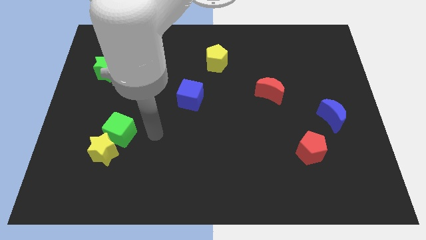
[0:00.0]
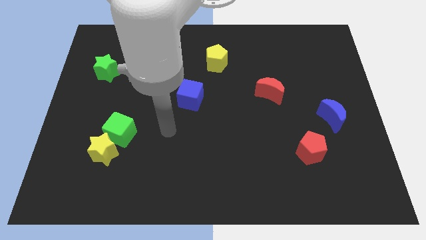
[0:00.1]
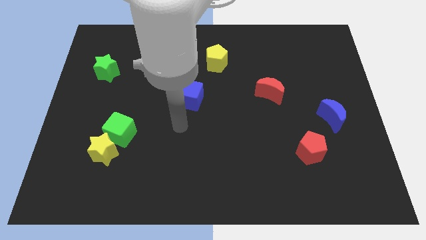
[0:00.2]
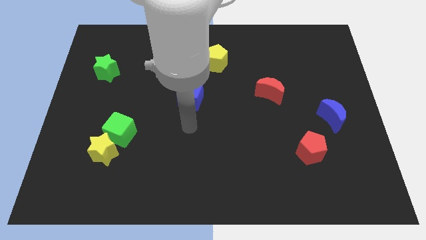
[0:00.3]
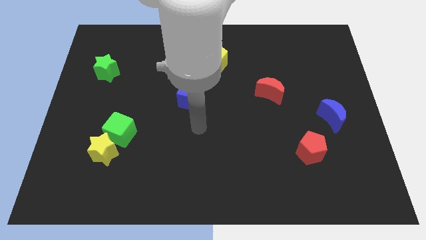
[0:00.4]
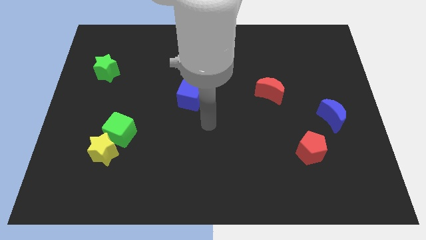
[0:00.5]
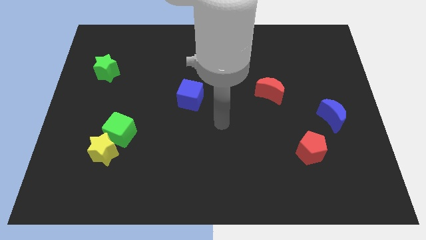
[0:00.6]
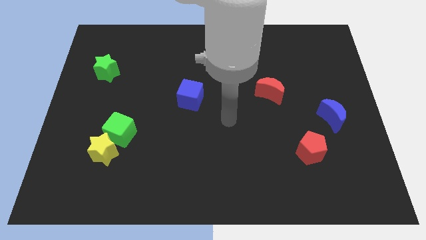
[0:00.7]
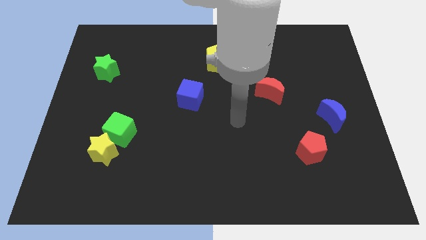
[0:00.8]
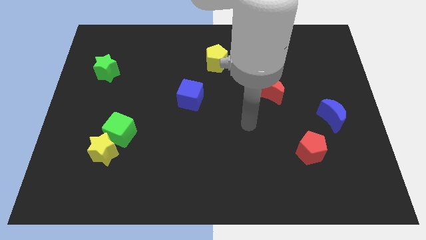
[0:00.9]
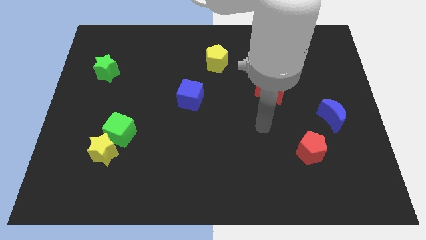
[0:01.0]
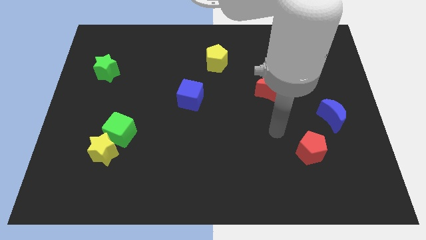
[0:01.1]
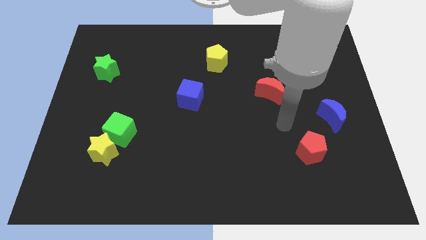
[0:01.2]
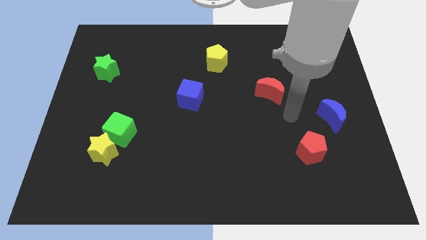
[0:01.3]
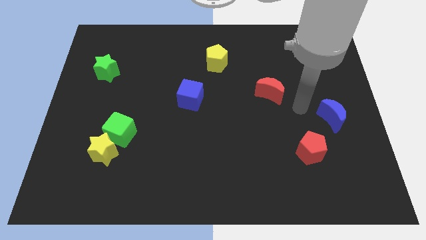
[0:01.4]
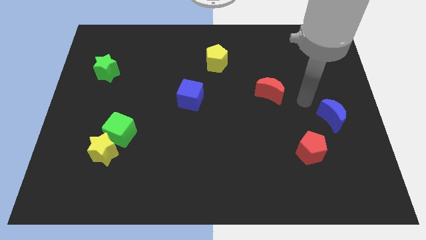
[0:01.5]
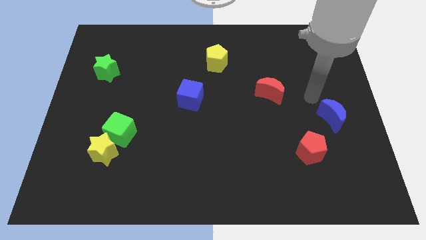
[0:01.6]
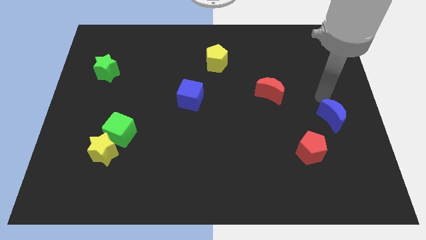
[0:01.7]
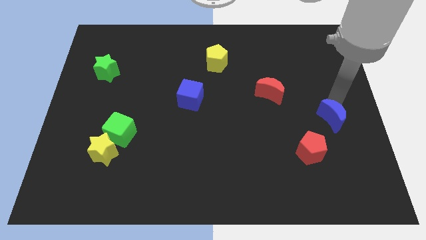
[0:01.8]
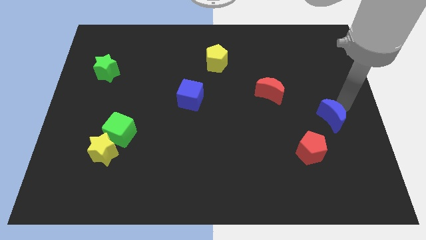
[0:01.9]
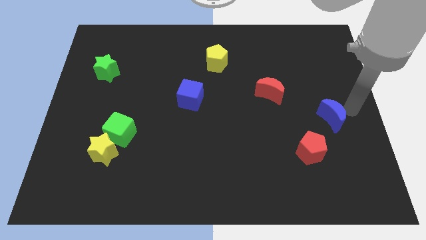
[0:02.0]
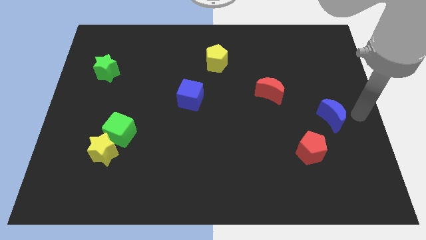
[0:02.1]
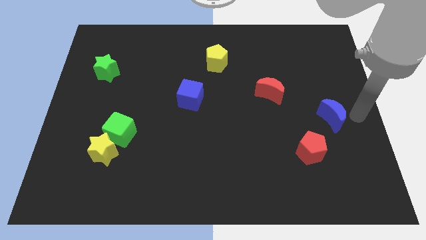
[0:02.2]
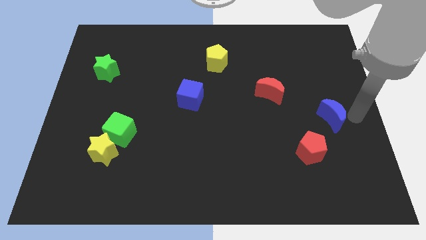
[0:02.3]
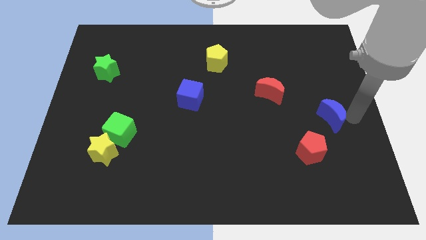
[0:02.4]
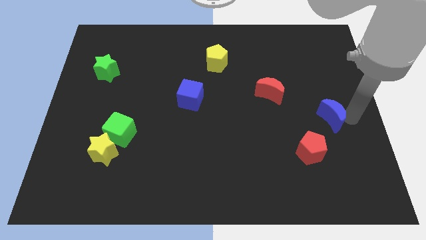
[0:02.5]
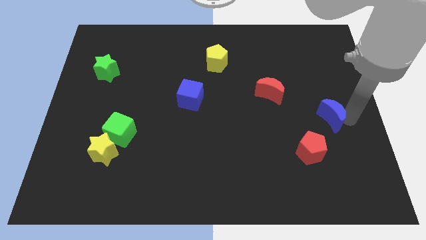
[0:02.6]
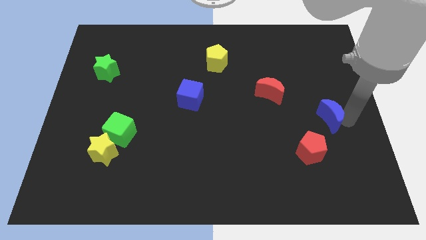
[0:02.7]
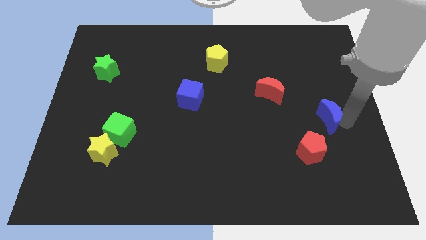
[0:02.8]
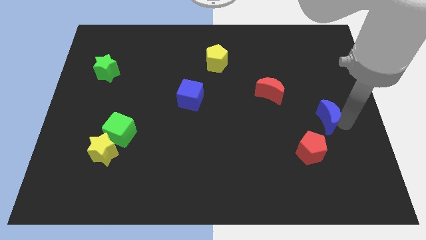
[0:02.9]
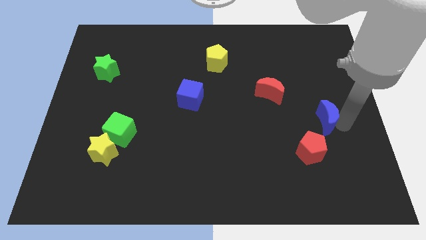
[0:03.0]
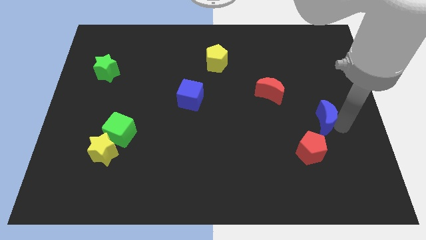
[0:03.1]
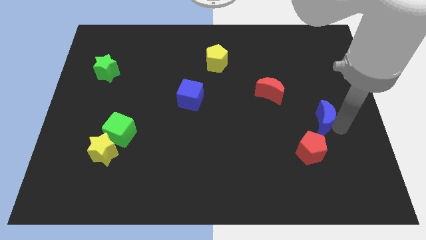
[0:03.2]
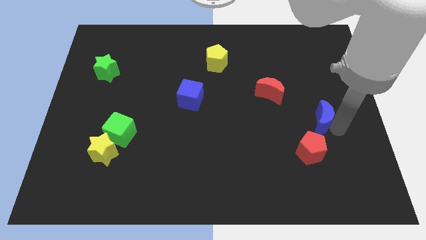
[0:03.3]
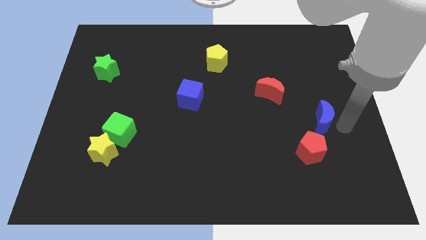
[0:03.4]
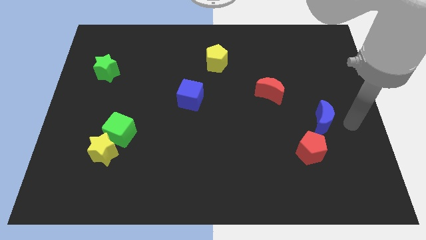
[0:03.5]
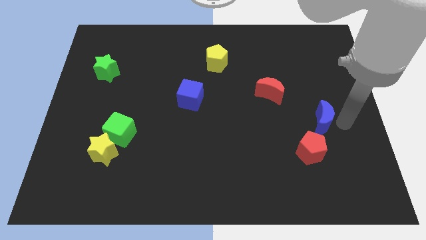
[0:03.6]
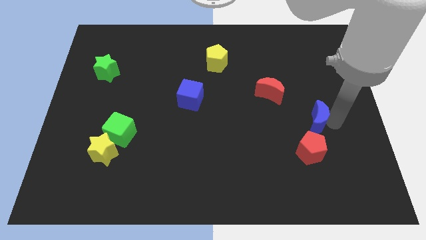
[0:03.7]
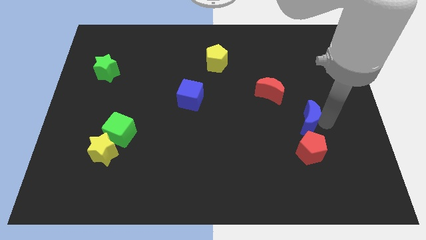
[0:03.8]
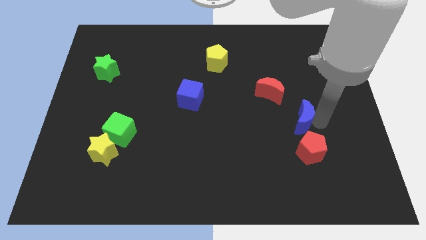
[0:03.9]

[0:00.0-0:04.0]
slightly slide the blue moon left

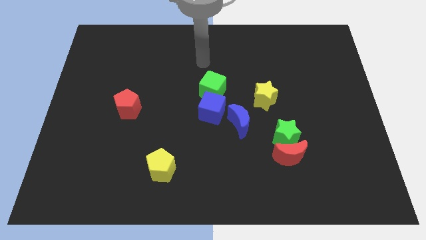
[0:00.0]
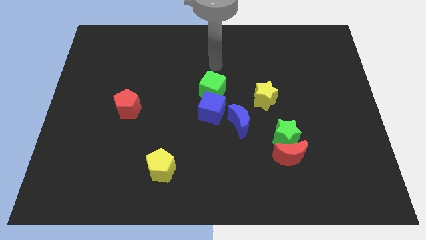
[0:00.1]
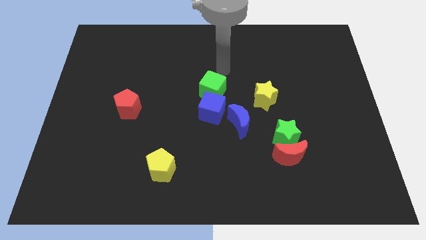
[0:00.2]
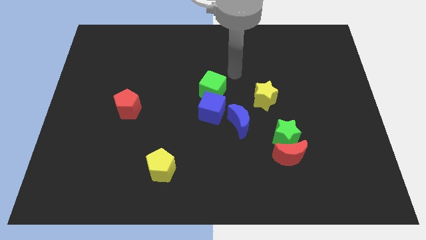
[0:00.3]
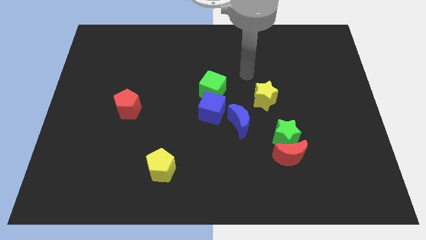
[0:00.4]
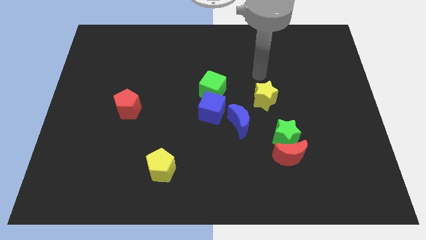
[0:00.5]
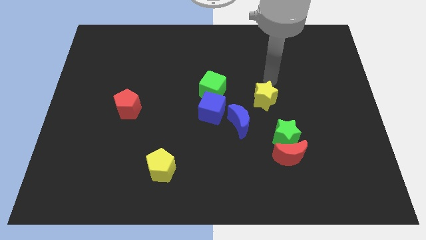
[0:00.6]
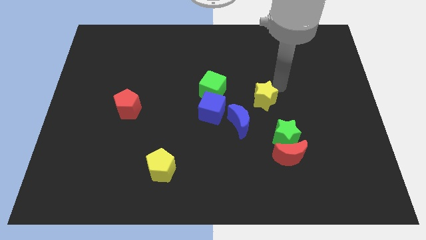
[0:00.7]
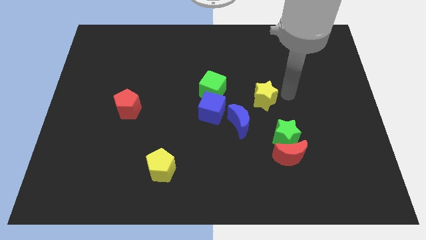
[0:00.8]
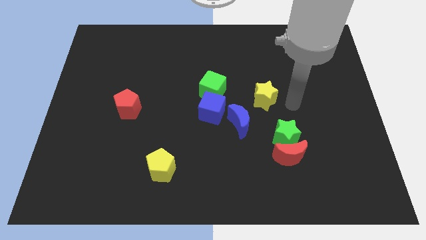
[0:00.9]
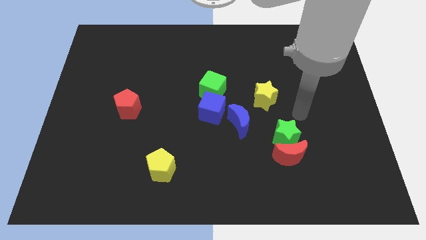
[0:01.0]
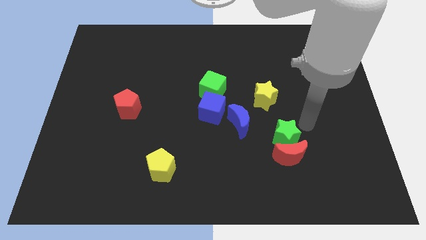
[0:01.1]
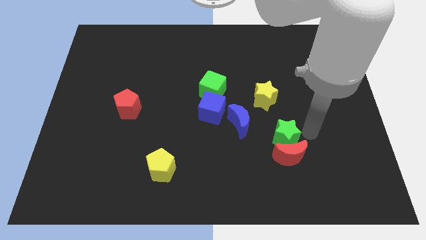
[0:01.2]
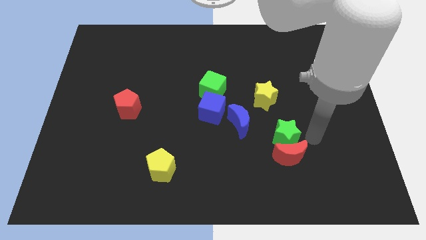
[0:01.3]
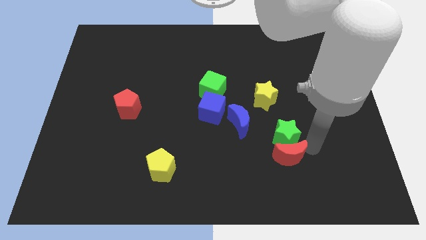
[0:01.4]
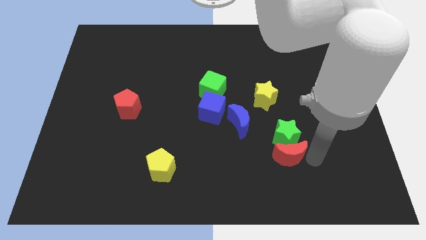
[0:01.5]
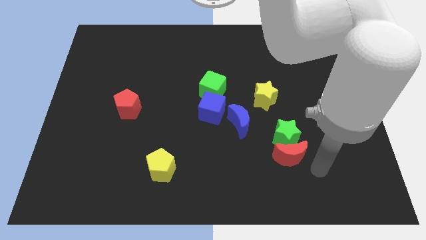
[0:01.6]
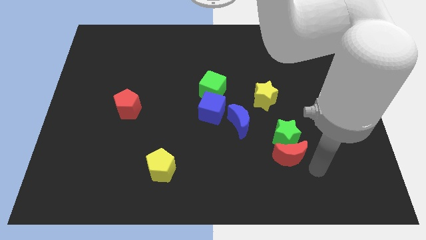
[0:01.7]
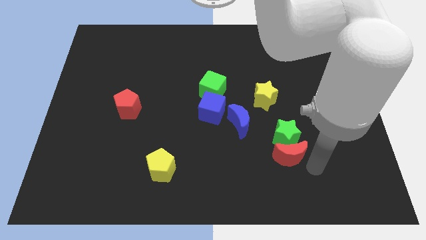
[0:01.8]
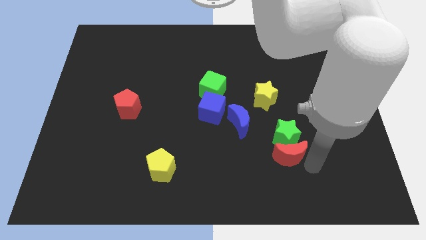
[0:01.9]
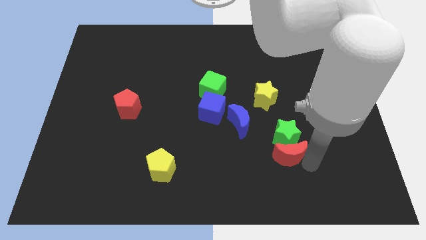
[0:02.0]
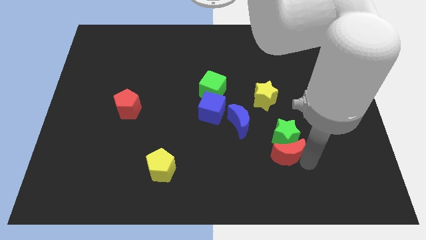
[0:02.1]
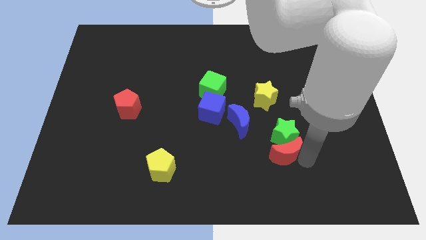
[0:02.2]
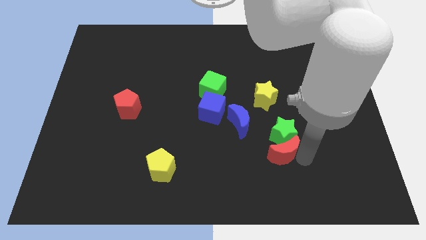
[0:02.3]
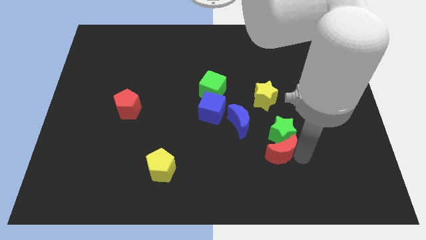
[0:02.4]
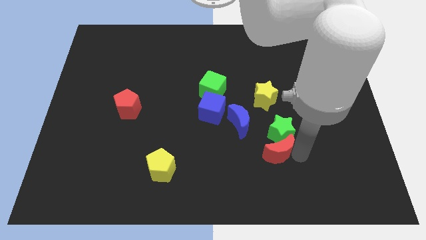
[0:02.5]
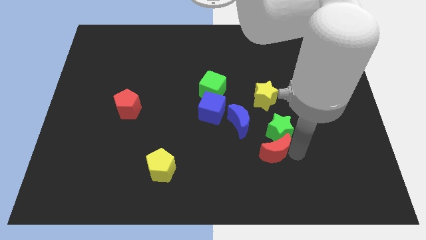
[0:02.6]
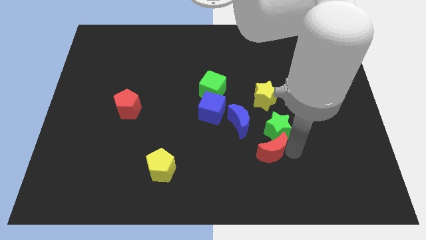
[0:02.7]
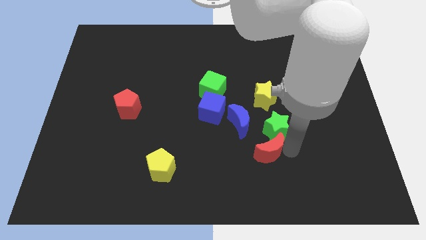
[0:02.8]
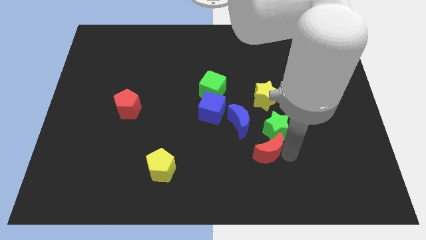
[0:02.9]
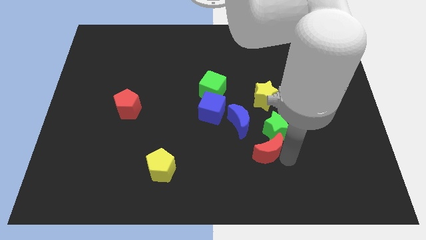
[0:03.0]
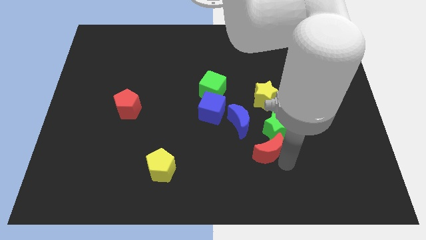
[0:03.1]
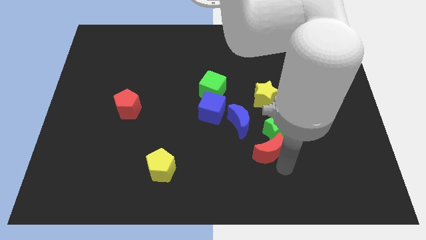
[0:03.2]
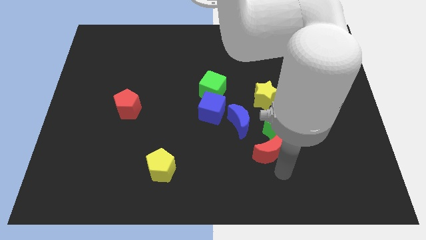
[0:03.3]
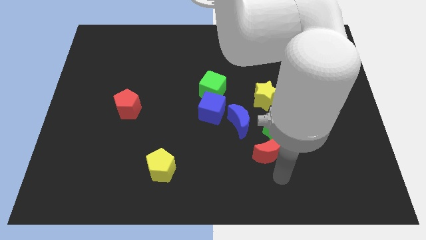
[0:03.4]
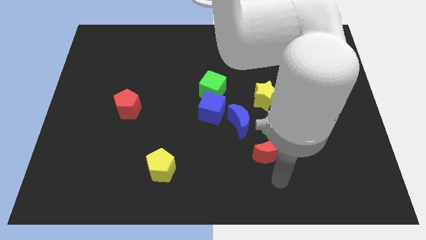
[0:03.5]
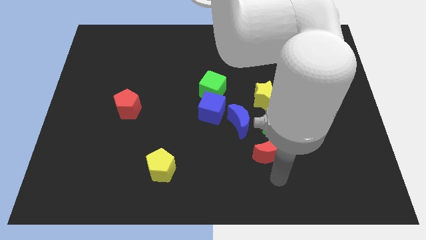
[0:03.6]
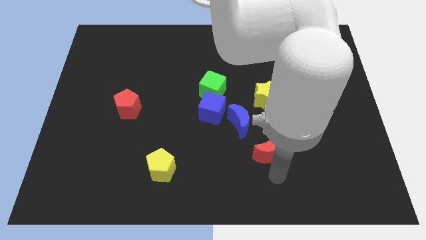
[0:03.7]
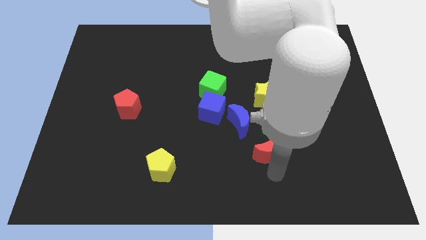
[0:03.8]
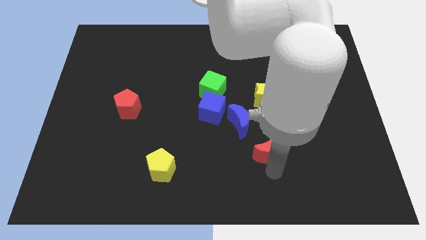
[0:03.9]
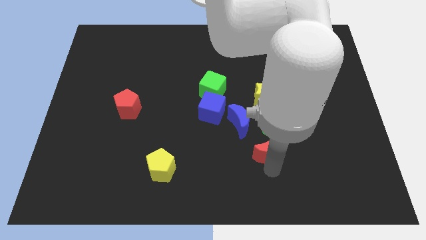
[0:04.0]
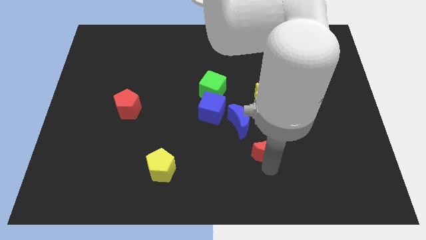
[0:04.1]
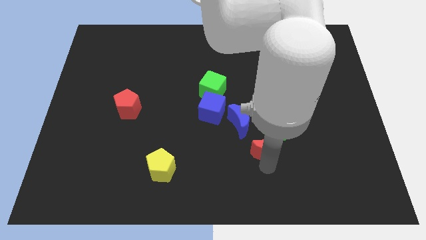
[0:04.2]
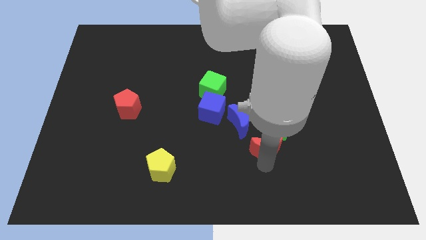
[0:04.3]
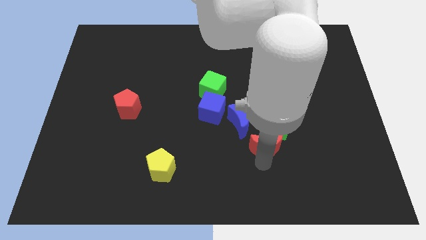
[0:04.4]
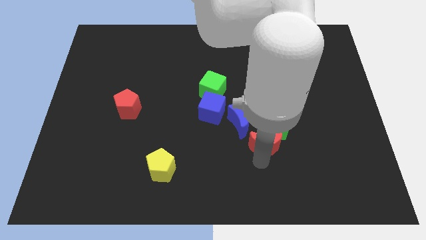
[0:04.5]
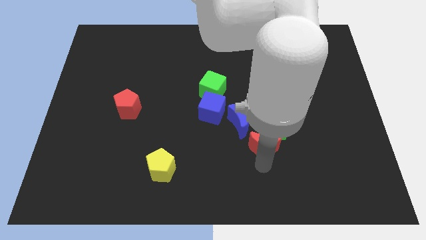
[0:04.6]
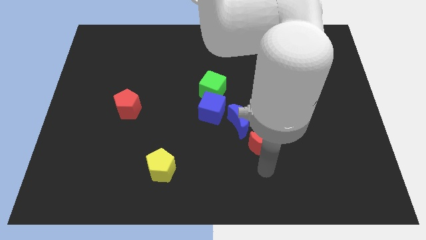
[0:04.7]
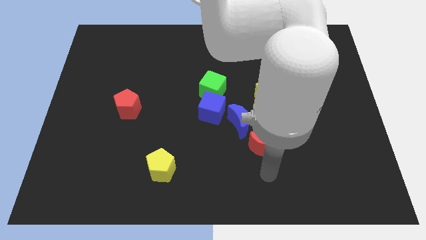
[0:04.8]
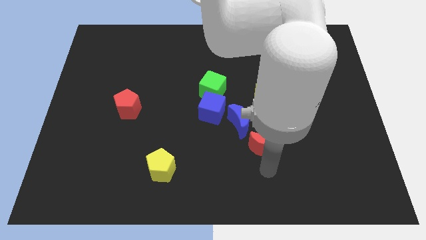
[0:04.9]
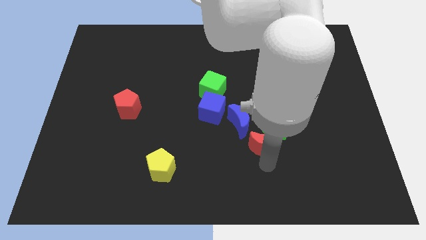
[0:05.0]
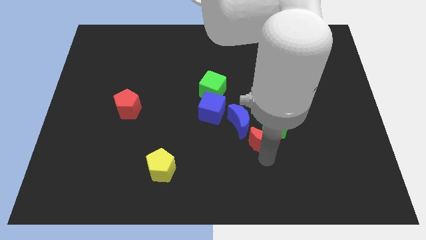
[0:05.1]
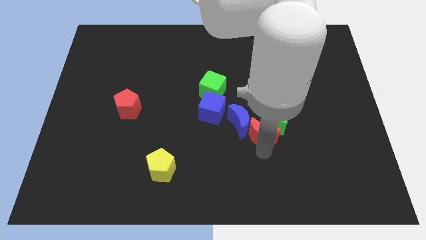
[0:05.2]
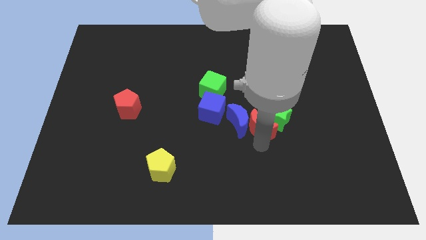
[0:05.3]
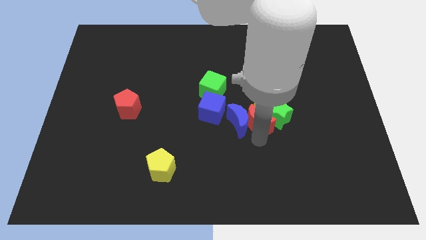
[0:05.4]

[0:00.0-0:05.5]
slightly slide the red moon upwards
